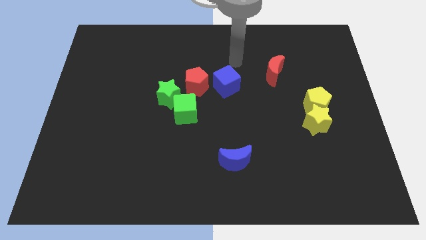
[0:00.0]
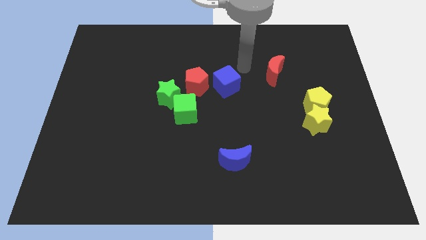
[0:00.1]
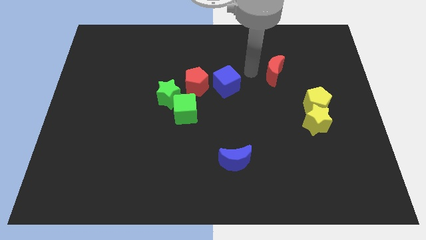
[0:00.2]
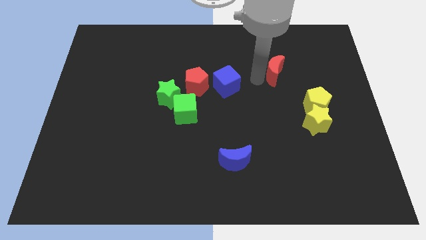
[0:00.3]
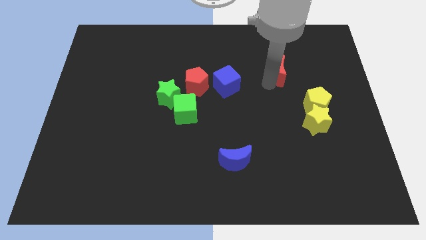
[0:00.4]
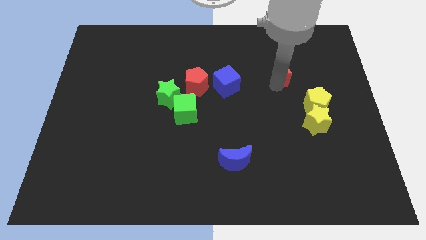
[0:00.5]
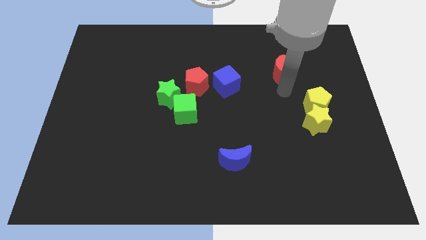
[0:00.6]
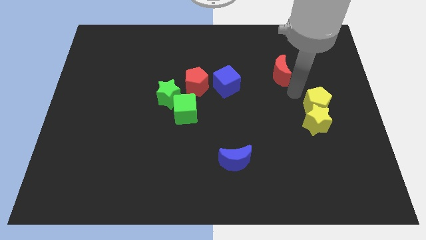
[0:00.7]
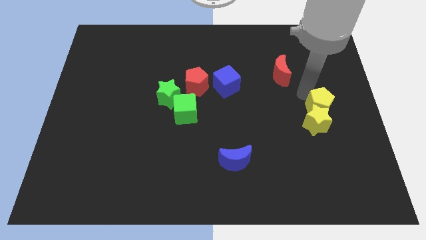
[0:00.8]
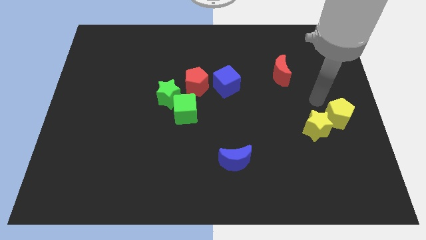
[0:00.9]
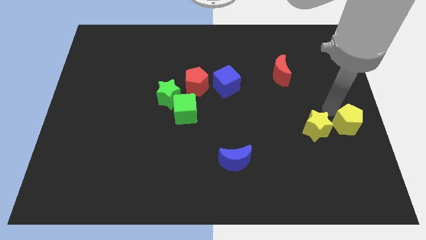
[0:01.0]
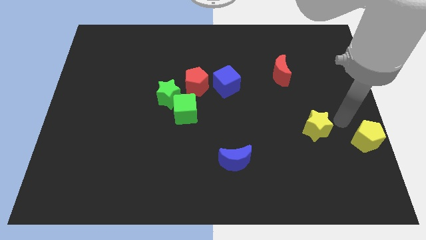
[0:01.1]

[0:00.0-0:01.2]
move the yellow star away from the yellow pentagon

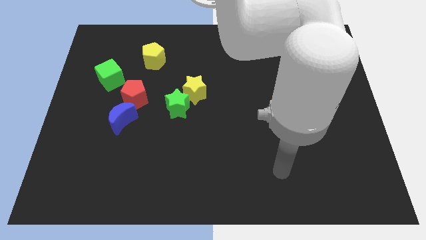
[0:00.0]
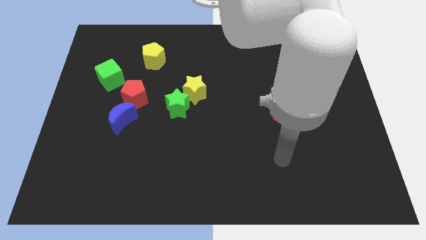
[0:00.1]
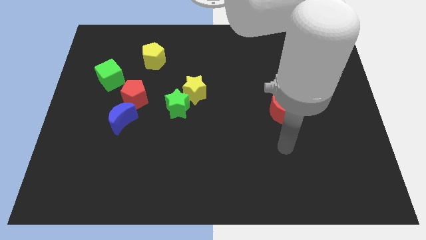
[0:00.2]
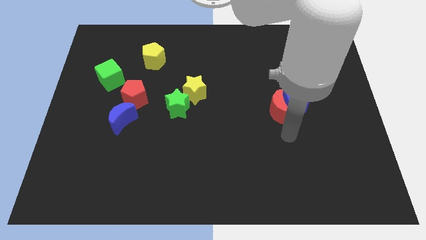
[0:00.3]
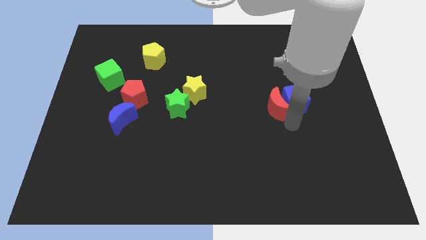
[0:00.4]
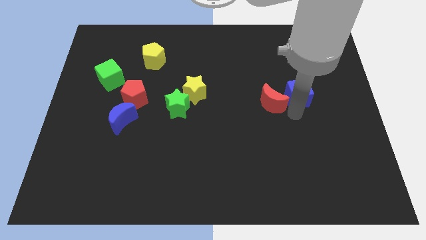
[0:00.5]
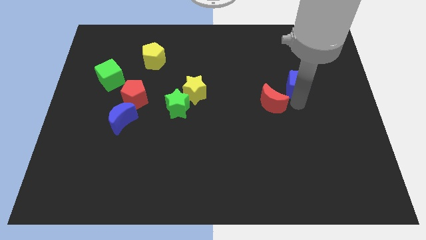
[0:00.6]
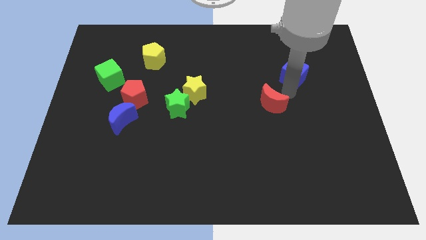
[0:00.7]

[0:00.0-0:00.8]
separate the red moon from the blue cube

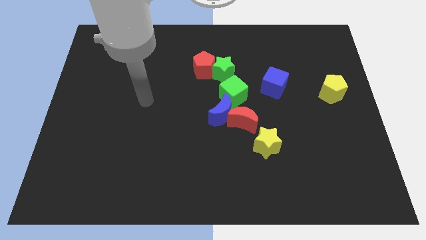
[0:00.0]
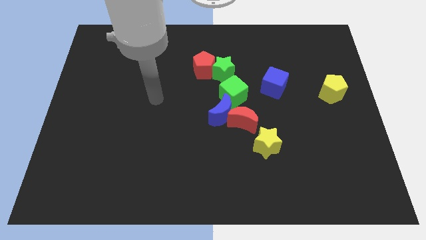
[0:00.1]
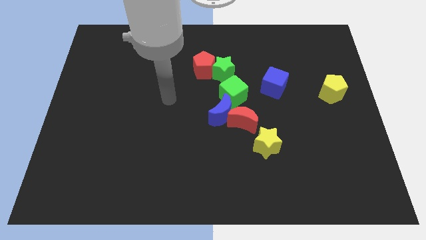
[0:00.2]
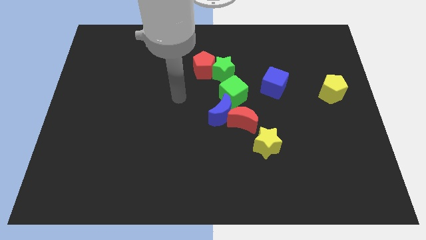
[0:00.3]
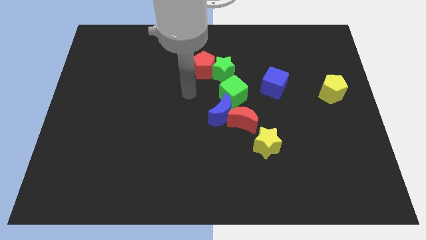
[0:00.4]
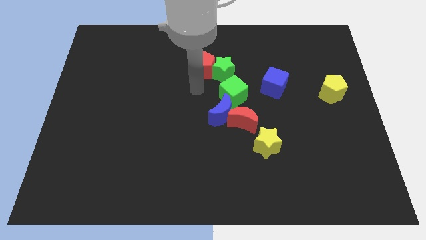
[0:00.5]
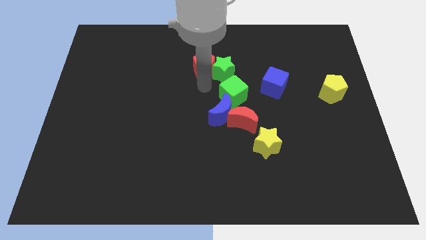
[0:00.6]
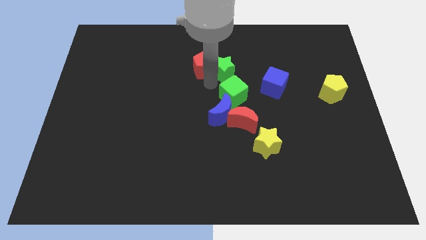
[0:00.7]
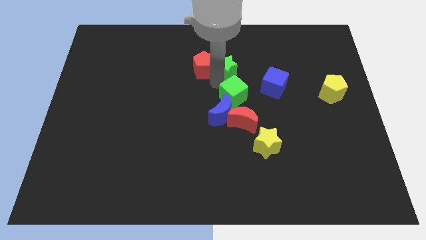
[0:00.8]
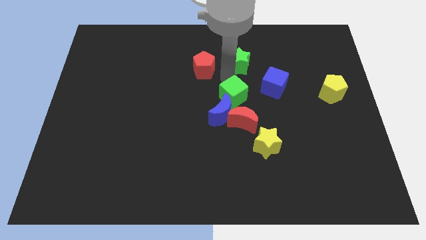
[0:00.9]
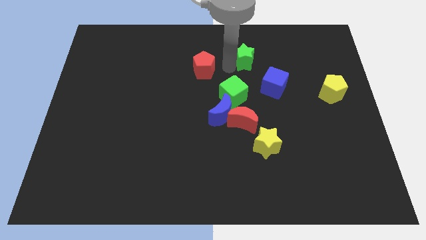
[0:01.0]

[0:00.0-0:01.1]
separate the red pentagon from the green star

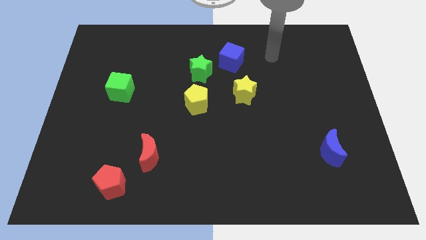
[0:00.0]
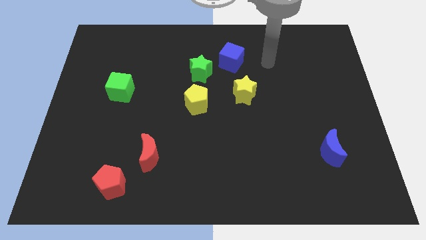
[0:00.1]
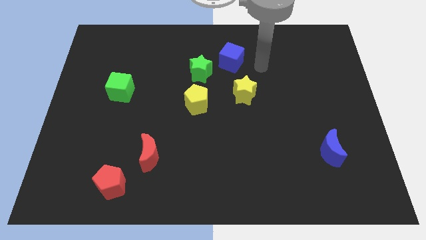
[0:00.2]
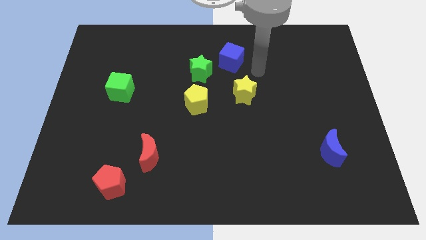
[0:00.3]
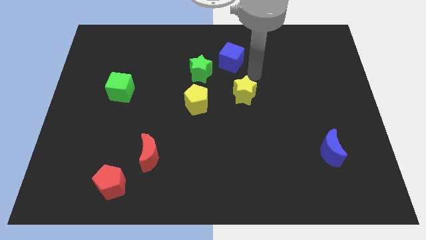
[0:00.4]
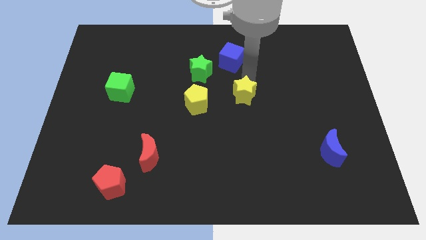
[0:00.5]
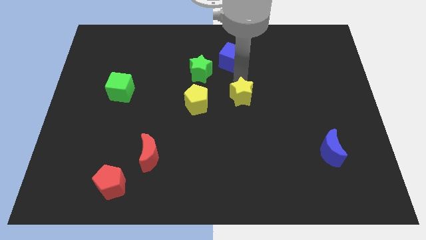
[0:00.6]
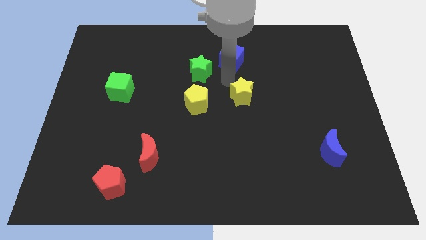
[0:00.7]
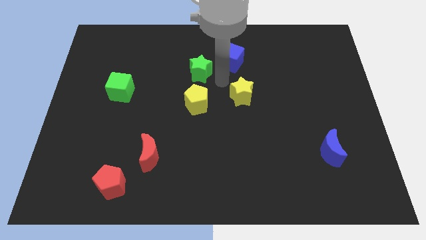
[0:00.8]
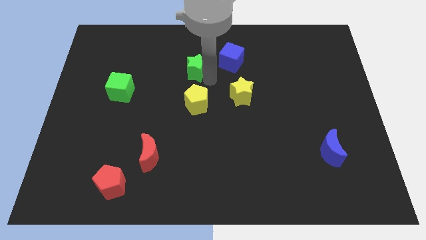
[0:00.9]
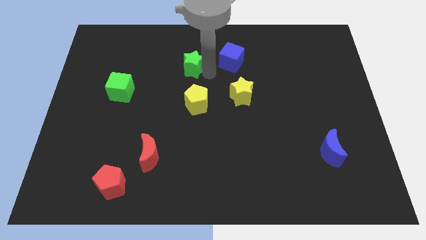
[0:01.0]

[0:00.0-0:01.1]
separate the blue cube from the green star

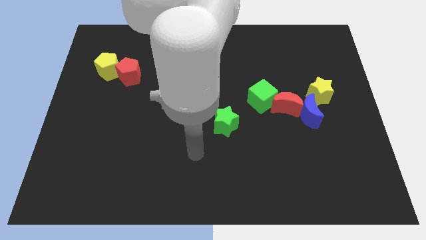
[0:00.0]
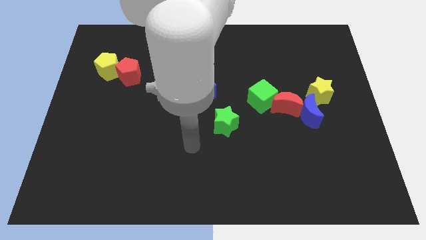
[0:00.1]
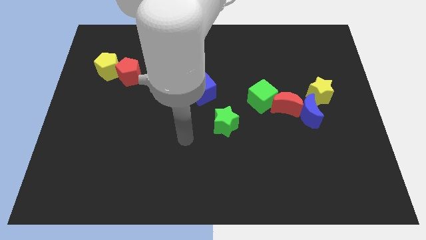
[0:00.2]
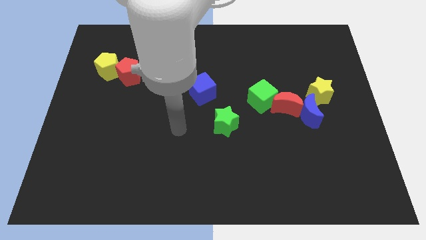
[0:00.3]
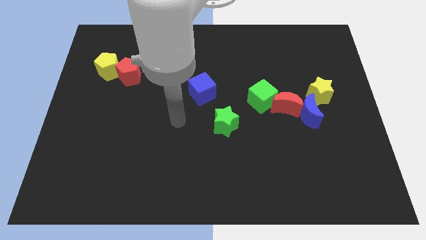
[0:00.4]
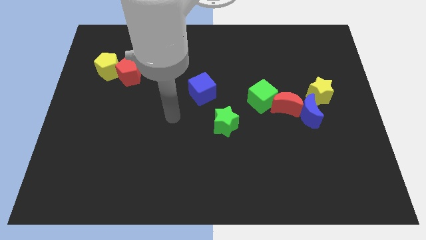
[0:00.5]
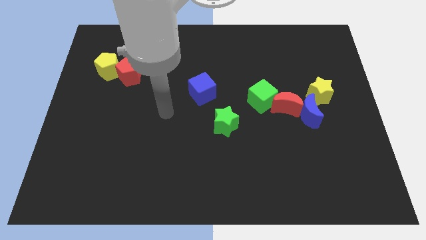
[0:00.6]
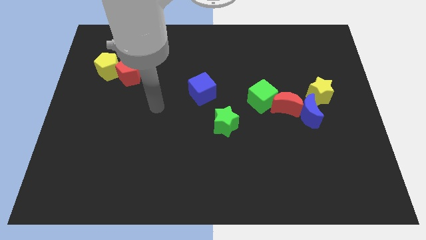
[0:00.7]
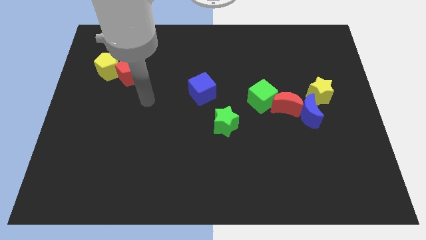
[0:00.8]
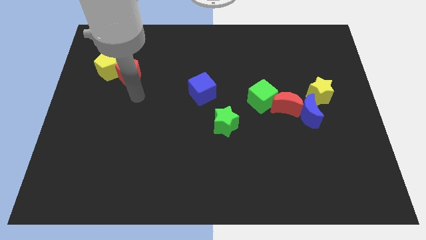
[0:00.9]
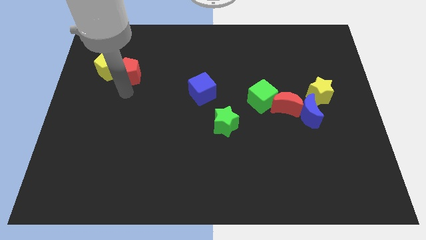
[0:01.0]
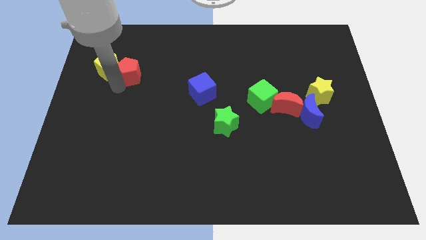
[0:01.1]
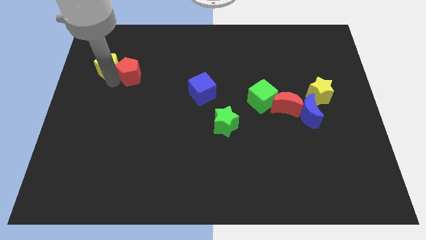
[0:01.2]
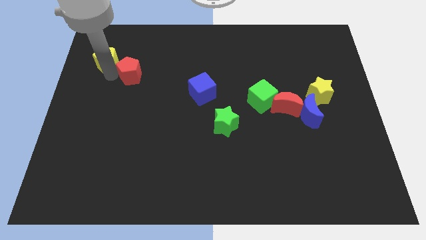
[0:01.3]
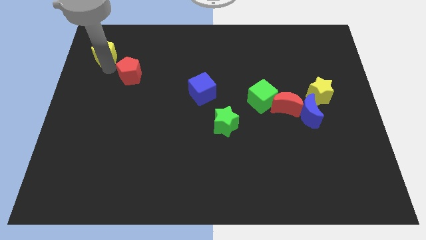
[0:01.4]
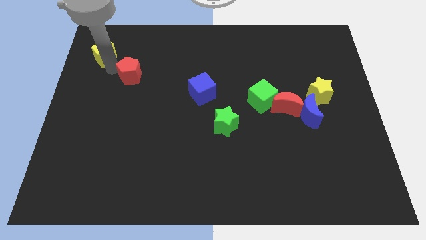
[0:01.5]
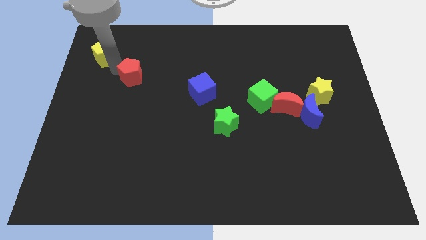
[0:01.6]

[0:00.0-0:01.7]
pull the red pentagon apart from the yellow pentagon

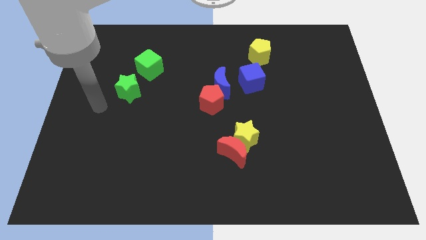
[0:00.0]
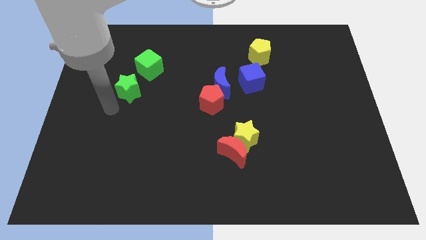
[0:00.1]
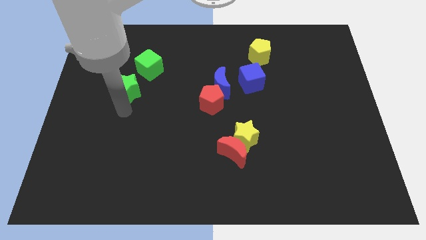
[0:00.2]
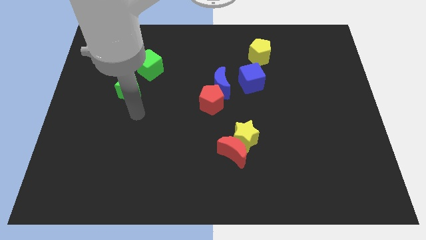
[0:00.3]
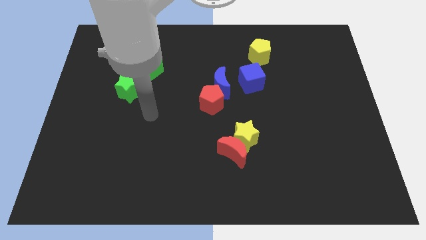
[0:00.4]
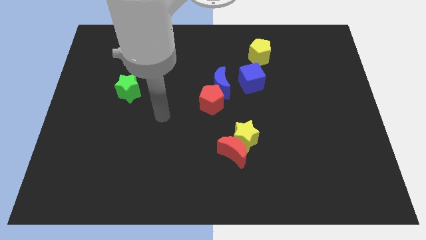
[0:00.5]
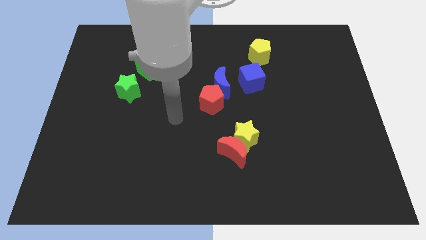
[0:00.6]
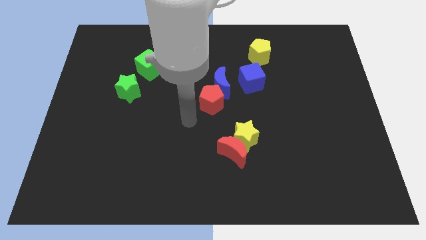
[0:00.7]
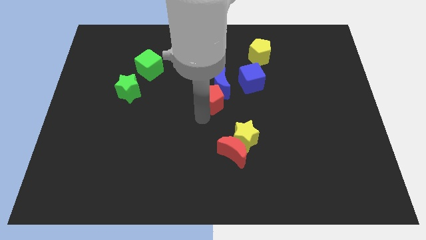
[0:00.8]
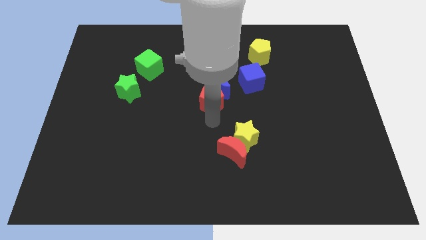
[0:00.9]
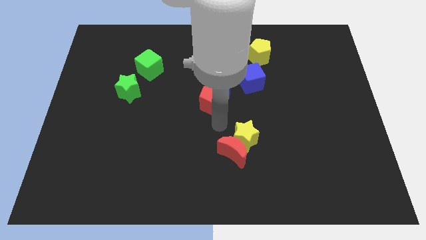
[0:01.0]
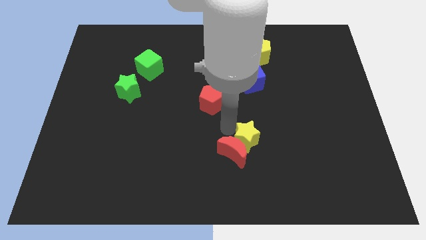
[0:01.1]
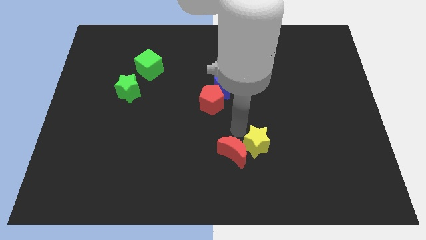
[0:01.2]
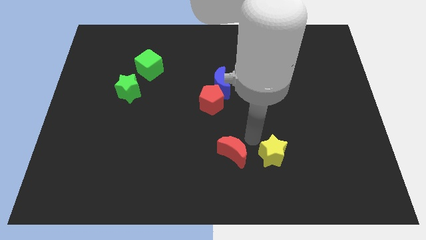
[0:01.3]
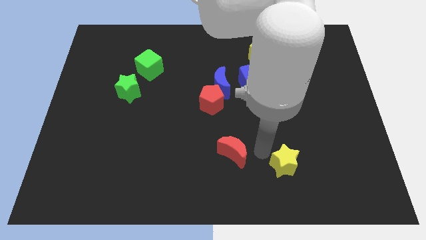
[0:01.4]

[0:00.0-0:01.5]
move the red moon away from the yellow star

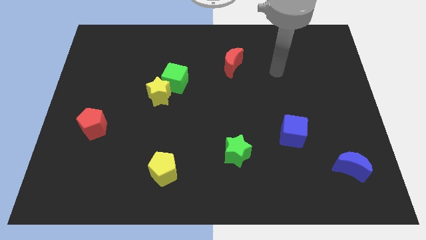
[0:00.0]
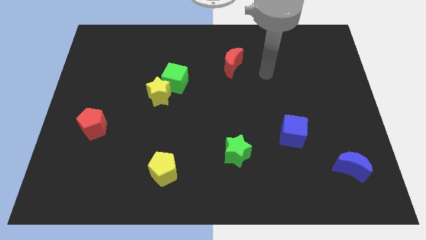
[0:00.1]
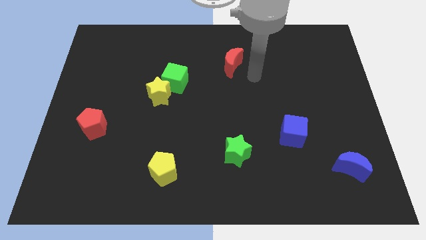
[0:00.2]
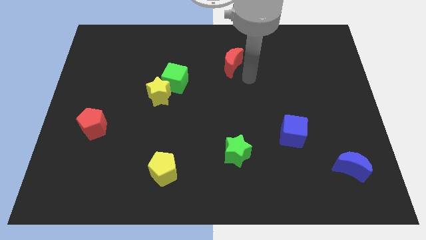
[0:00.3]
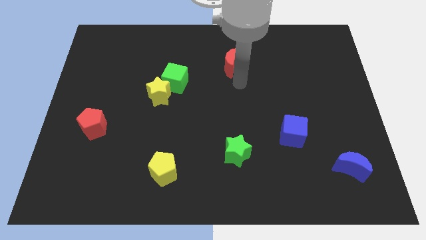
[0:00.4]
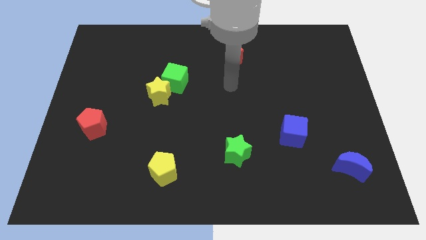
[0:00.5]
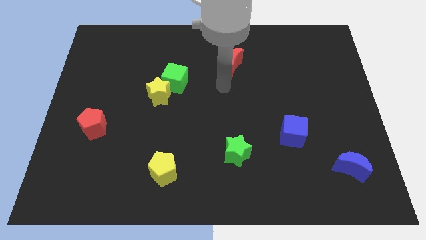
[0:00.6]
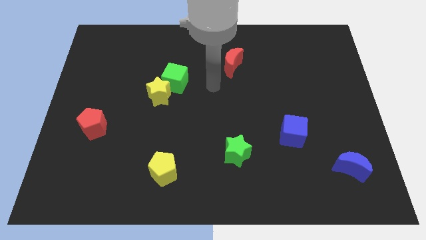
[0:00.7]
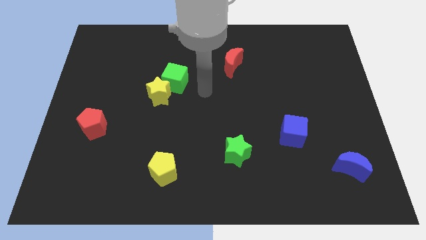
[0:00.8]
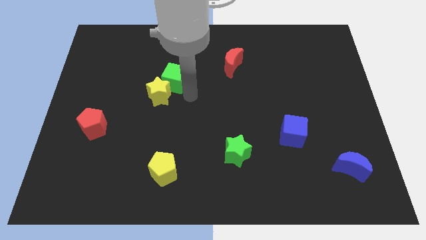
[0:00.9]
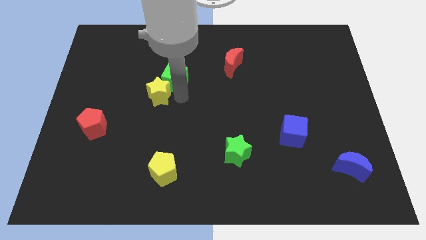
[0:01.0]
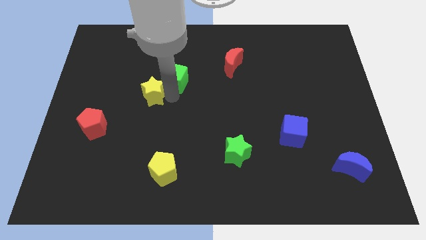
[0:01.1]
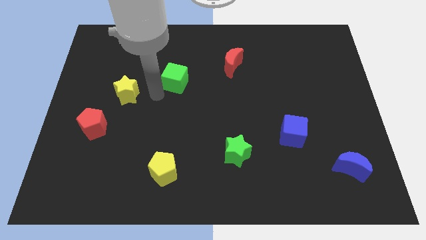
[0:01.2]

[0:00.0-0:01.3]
pull the green cube apart from the yellow star

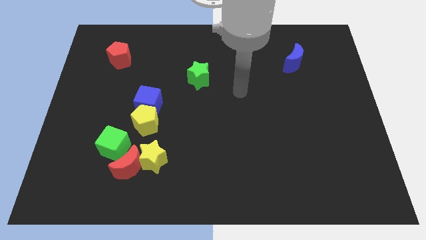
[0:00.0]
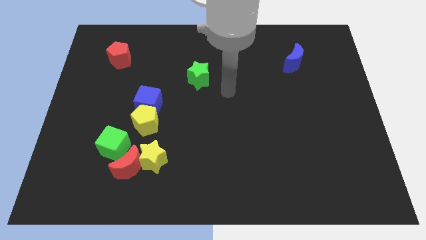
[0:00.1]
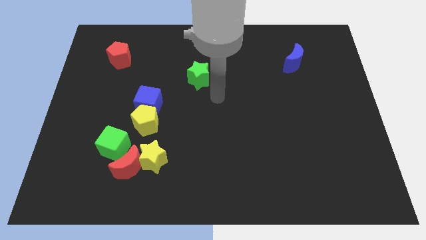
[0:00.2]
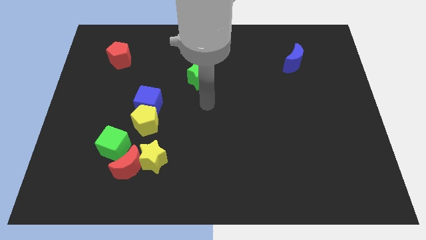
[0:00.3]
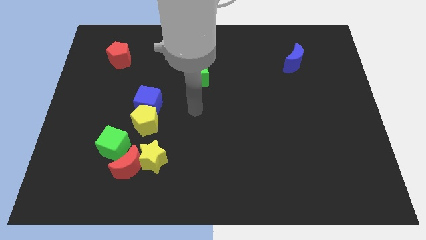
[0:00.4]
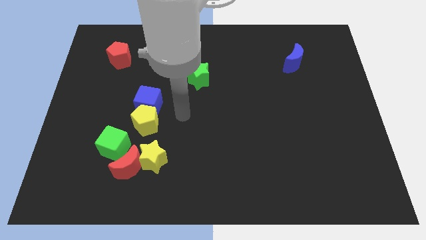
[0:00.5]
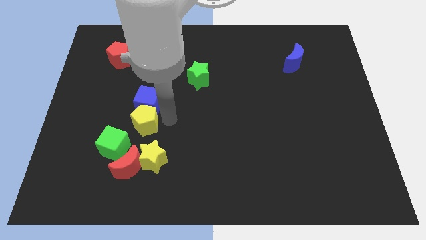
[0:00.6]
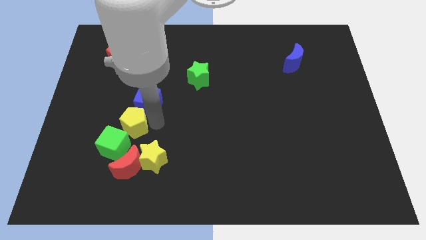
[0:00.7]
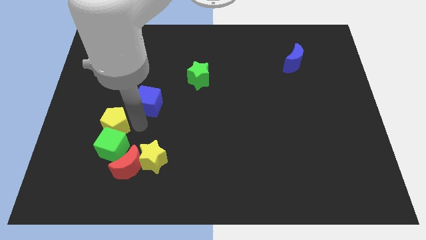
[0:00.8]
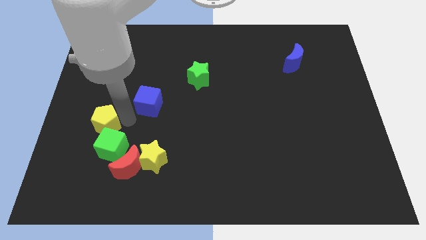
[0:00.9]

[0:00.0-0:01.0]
separate the blue cube from the yellow pentagon
